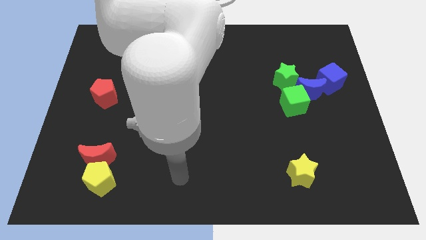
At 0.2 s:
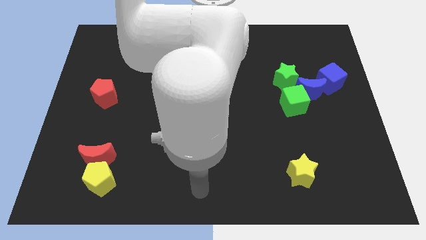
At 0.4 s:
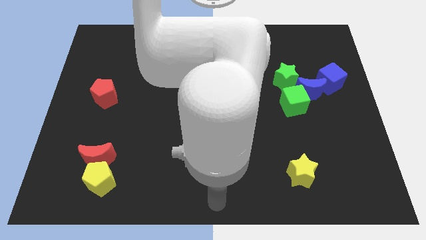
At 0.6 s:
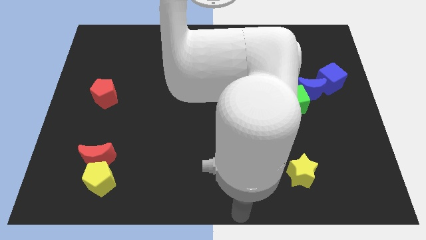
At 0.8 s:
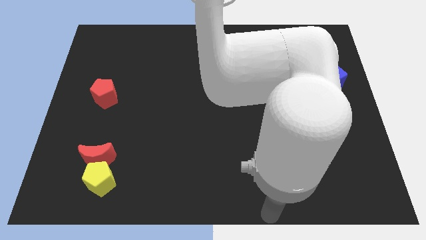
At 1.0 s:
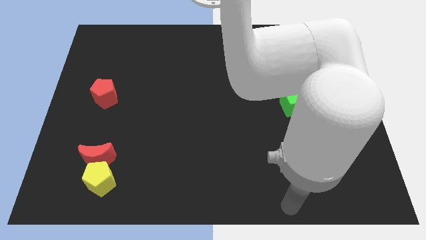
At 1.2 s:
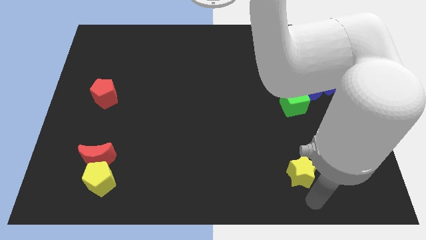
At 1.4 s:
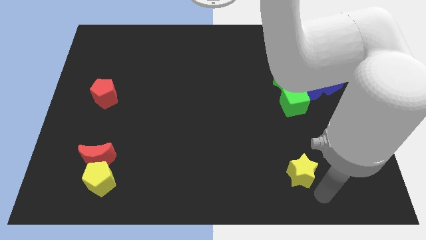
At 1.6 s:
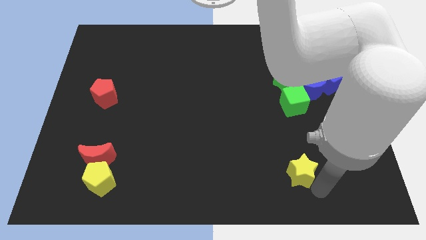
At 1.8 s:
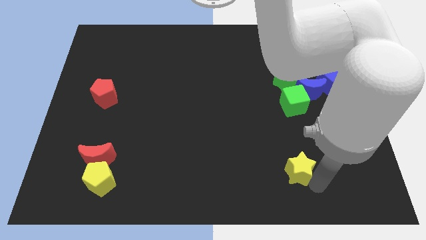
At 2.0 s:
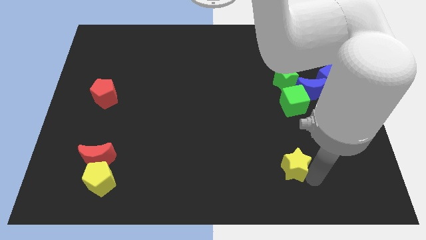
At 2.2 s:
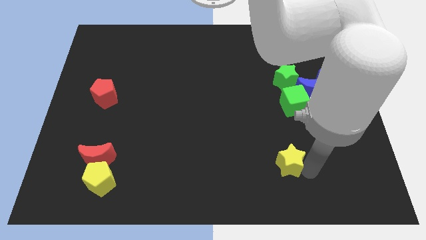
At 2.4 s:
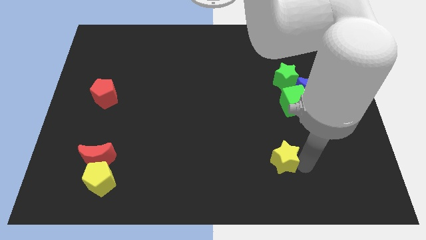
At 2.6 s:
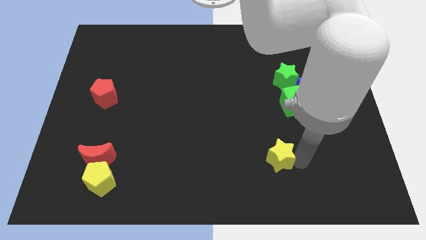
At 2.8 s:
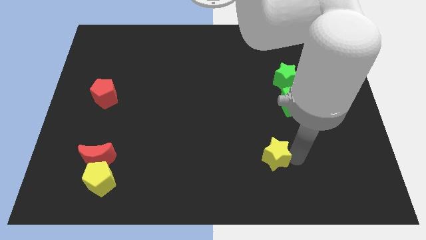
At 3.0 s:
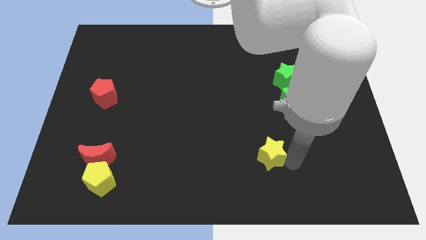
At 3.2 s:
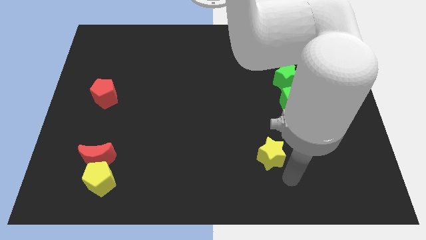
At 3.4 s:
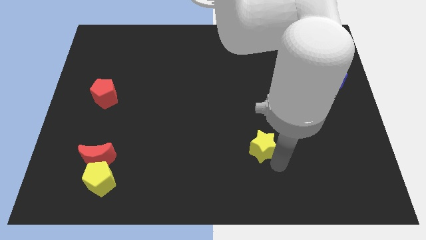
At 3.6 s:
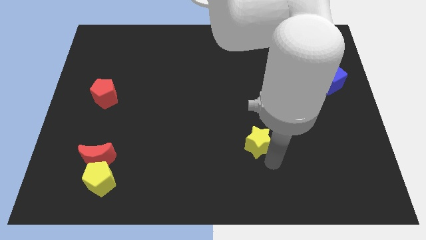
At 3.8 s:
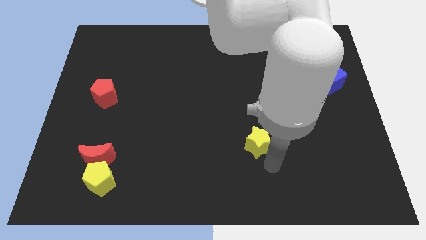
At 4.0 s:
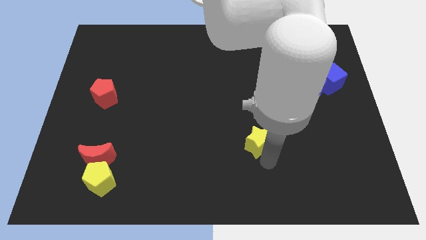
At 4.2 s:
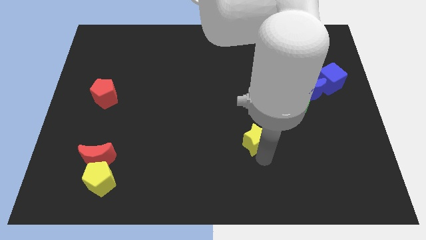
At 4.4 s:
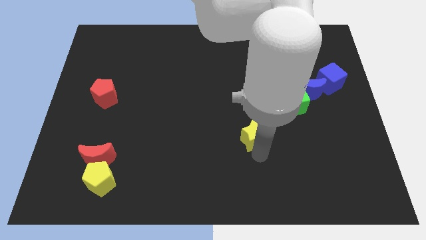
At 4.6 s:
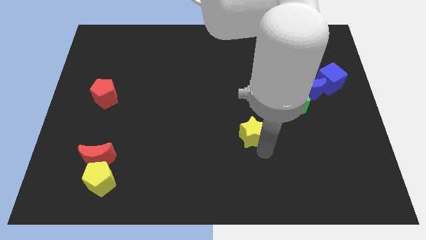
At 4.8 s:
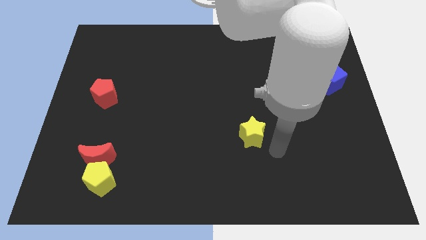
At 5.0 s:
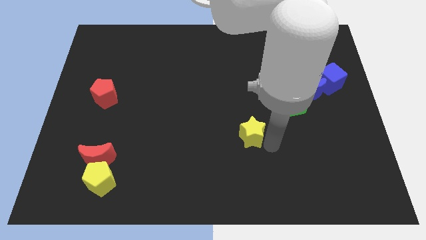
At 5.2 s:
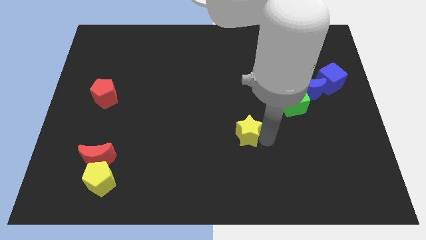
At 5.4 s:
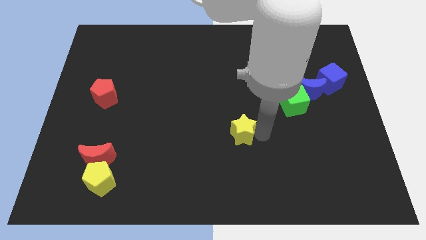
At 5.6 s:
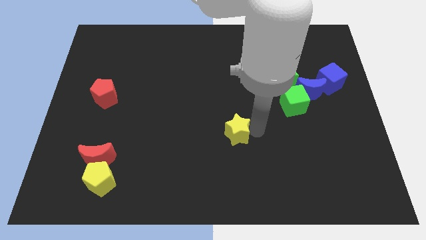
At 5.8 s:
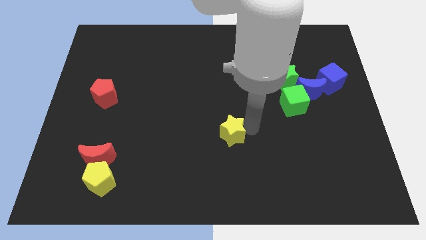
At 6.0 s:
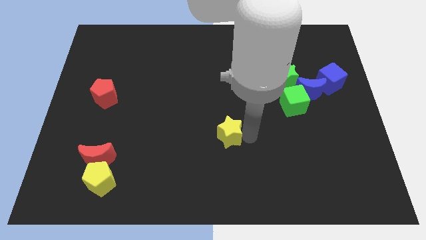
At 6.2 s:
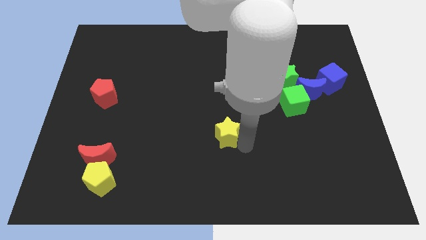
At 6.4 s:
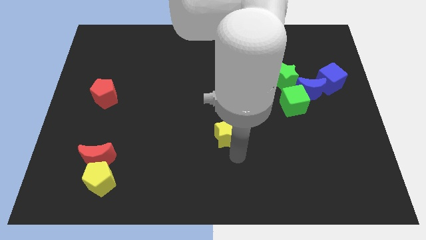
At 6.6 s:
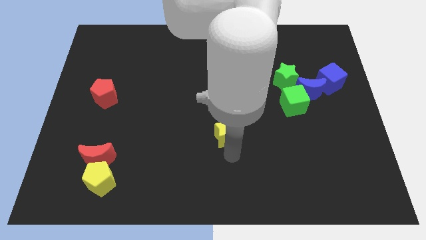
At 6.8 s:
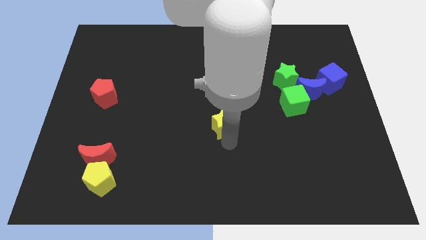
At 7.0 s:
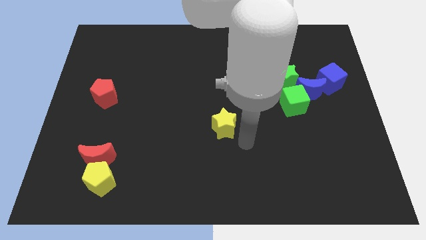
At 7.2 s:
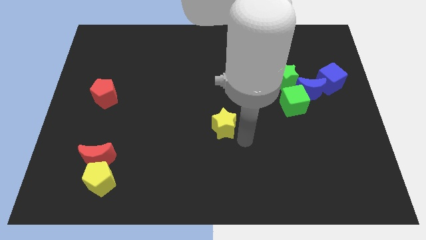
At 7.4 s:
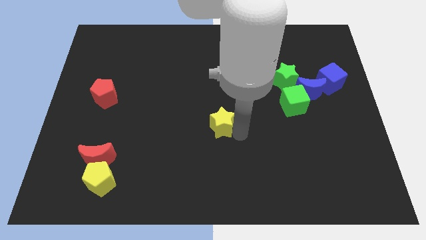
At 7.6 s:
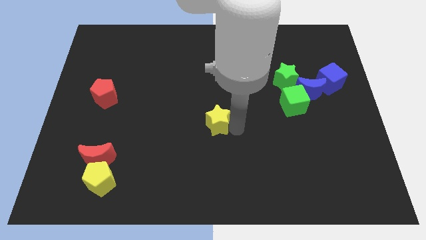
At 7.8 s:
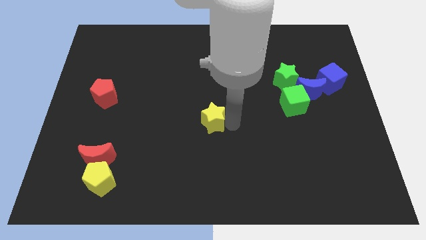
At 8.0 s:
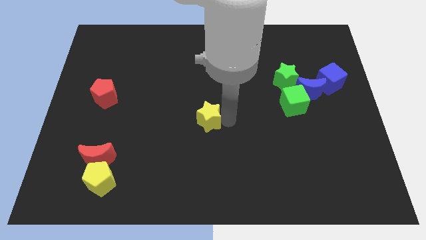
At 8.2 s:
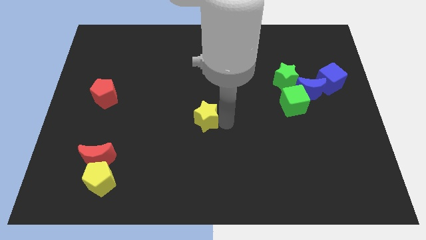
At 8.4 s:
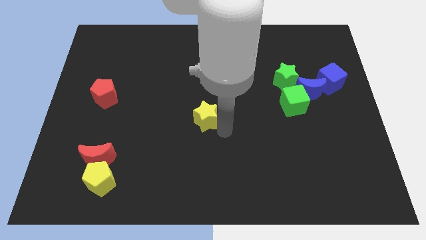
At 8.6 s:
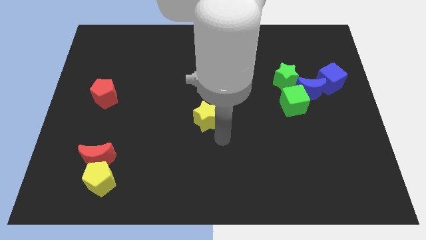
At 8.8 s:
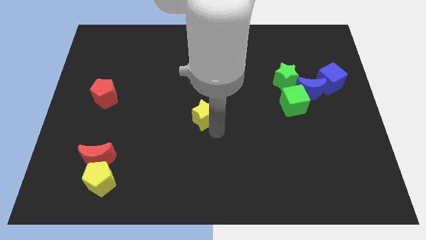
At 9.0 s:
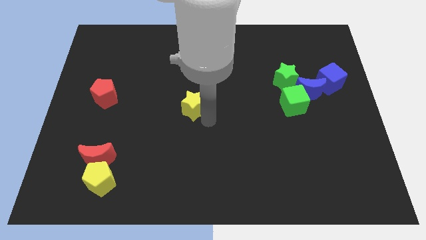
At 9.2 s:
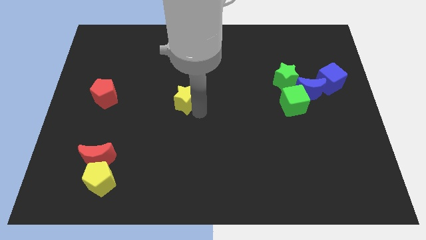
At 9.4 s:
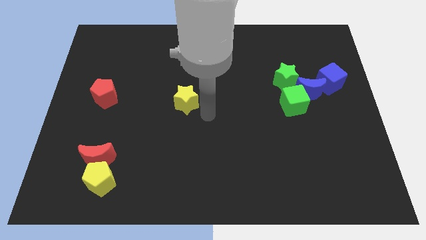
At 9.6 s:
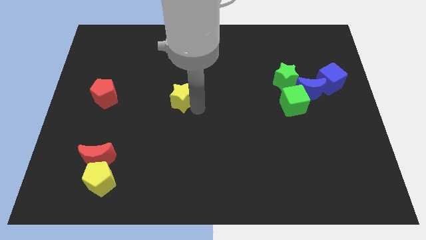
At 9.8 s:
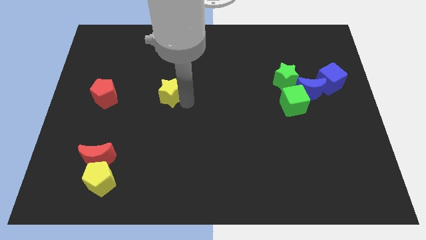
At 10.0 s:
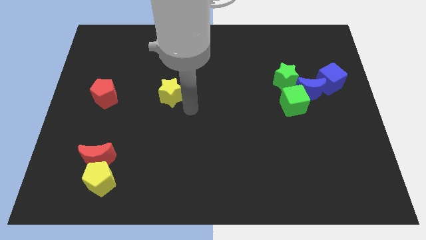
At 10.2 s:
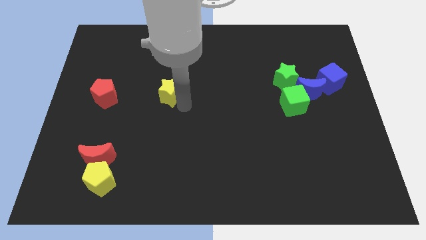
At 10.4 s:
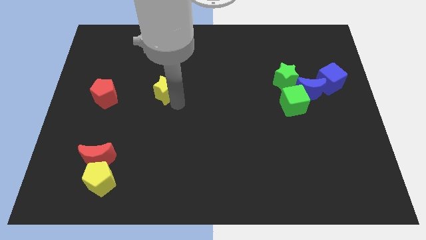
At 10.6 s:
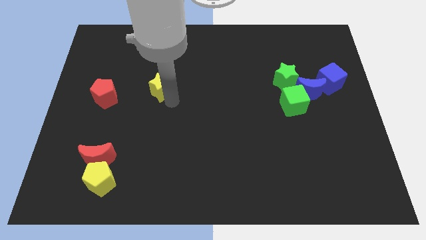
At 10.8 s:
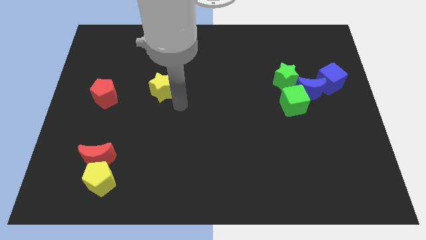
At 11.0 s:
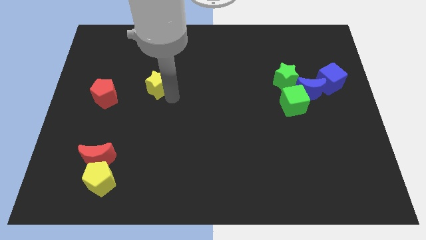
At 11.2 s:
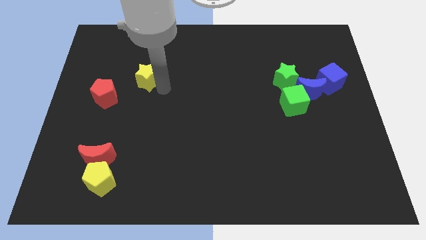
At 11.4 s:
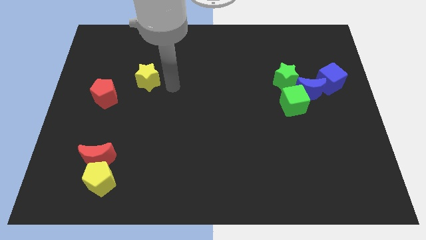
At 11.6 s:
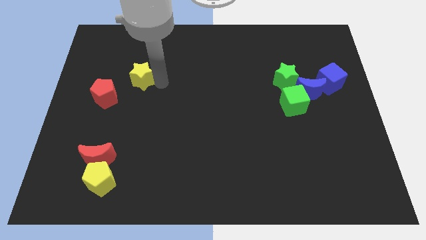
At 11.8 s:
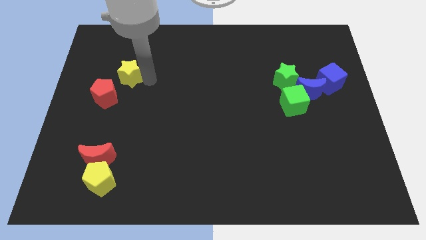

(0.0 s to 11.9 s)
slide the yellow star to the top side of the red pentagon

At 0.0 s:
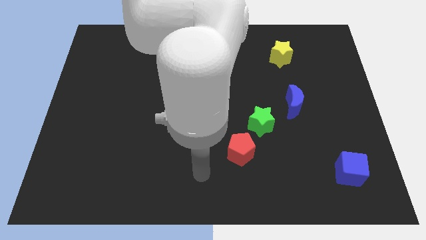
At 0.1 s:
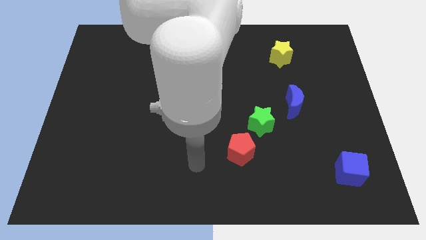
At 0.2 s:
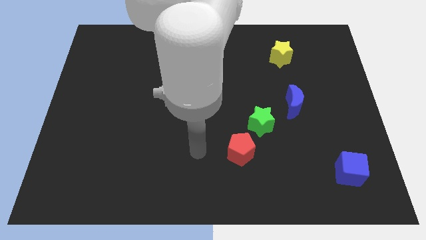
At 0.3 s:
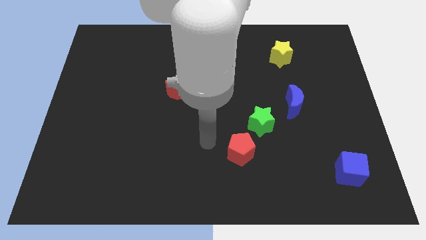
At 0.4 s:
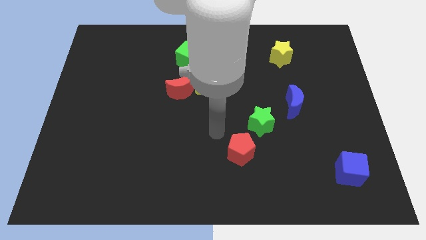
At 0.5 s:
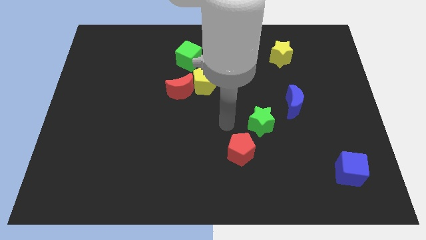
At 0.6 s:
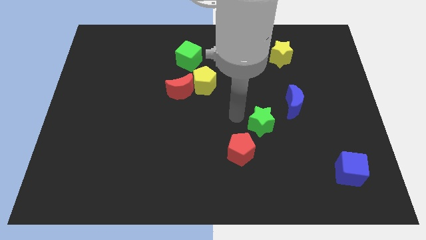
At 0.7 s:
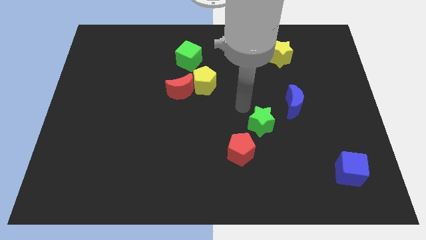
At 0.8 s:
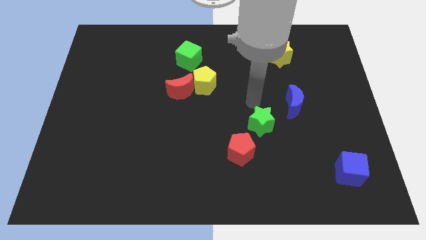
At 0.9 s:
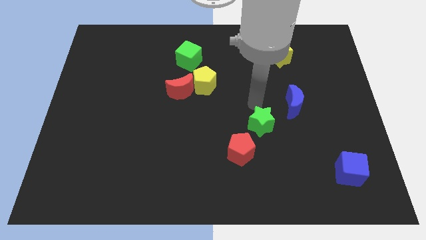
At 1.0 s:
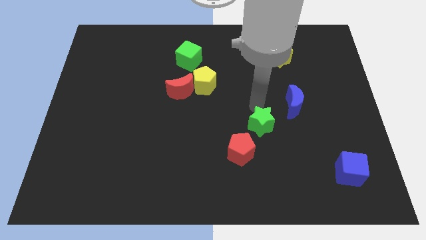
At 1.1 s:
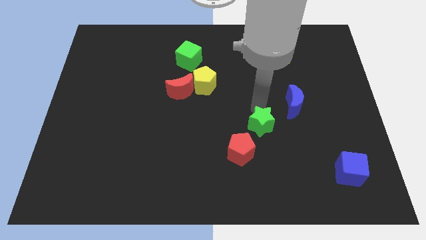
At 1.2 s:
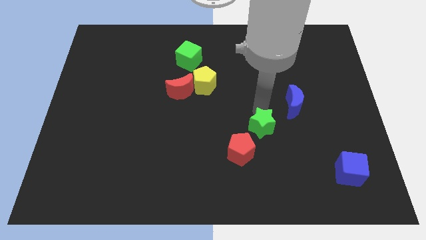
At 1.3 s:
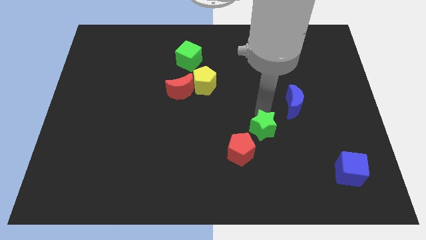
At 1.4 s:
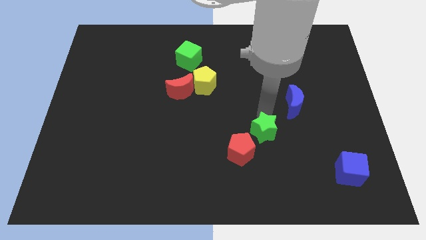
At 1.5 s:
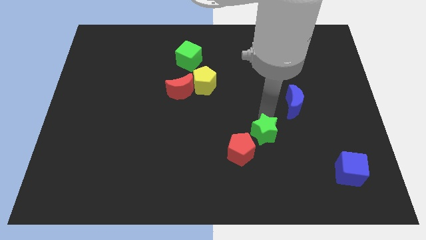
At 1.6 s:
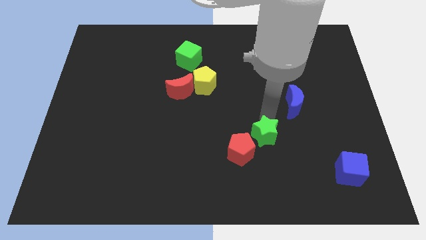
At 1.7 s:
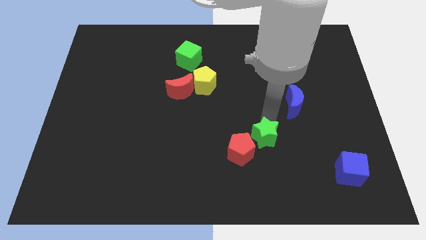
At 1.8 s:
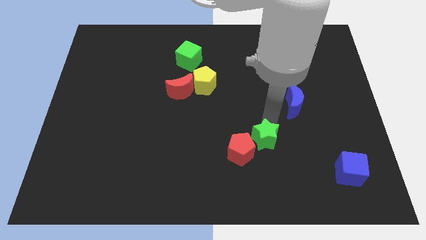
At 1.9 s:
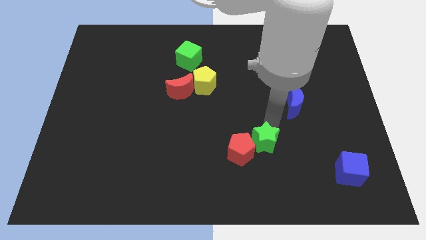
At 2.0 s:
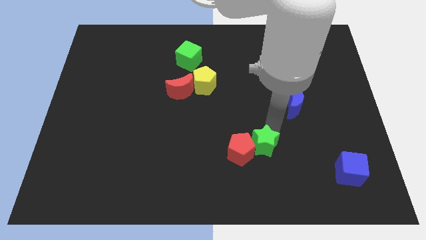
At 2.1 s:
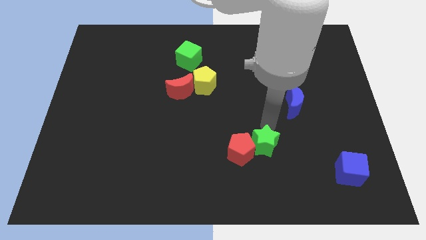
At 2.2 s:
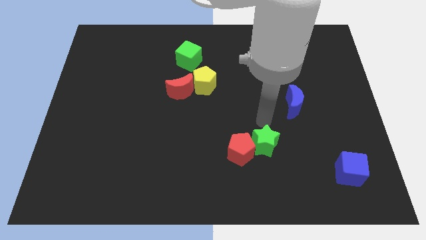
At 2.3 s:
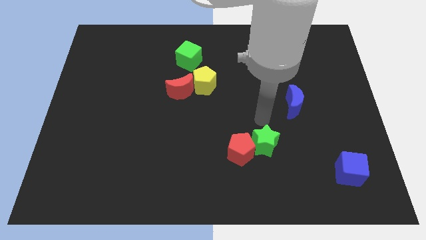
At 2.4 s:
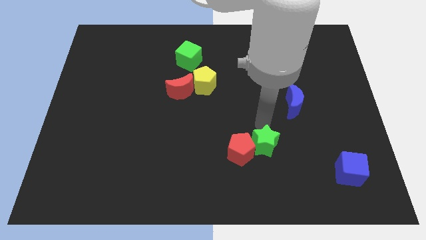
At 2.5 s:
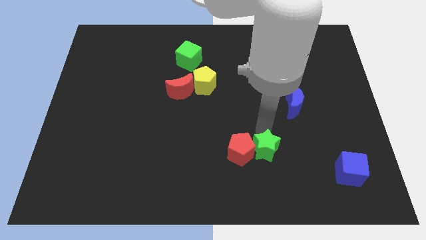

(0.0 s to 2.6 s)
push the green star to the bottom right of the red pentagon
